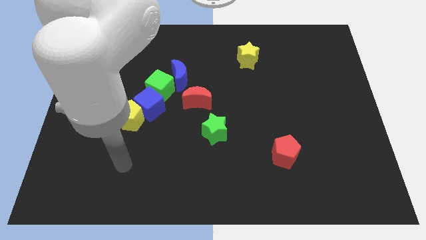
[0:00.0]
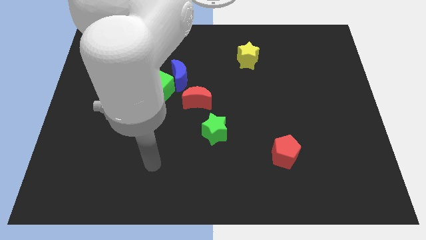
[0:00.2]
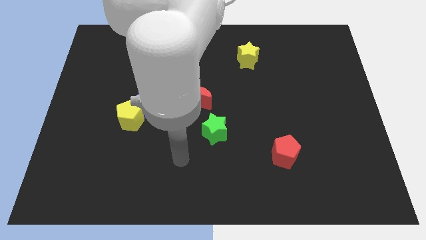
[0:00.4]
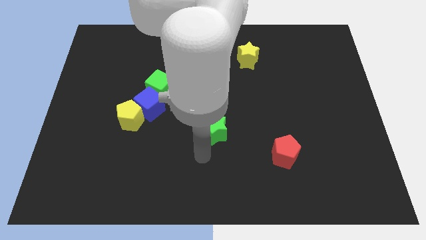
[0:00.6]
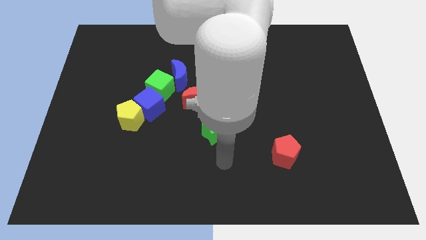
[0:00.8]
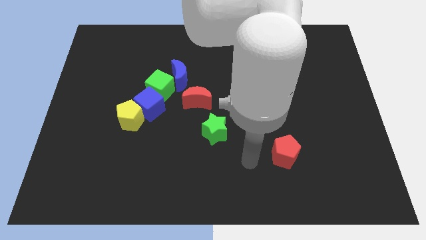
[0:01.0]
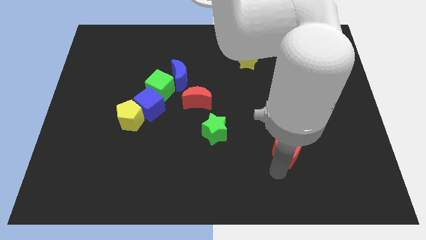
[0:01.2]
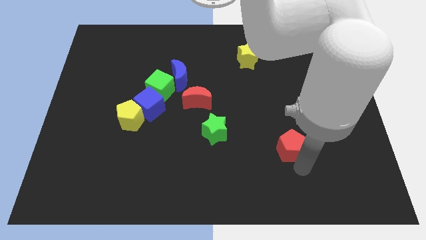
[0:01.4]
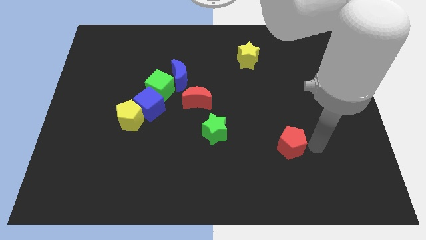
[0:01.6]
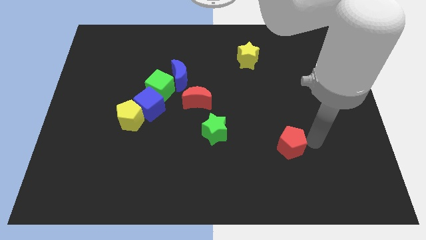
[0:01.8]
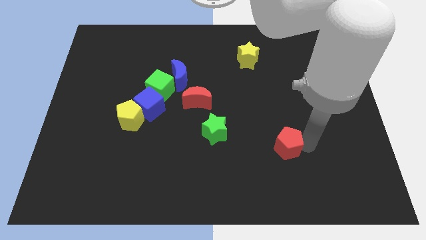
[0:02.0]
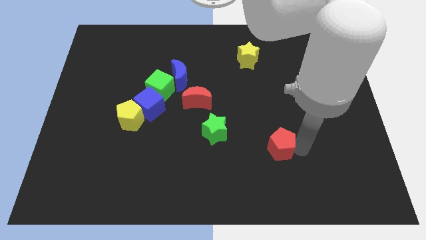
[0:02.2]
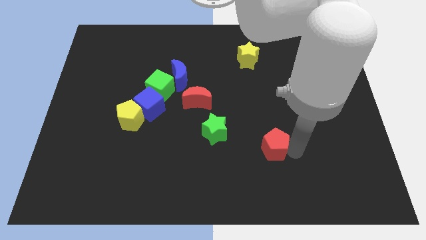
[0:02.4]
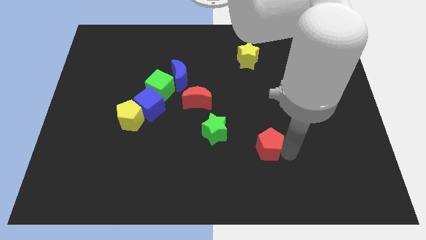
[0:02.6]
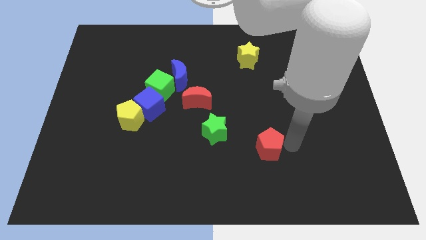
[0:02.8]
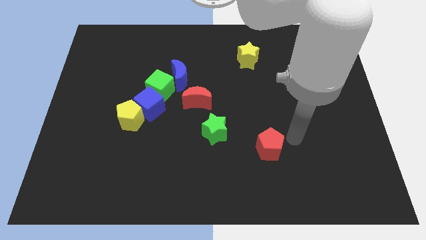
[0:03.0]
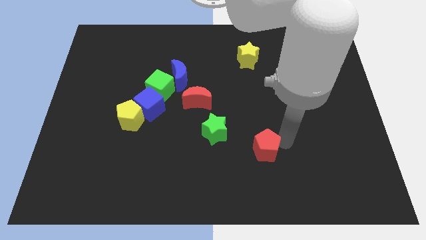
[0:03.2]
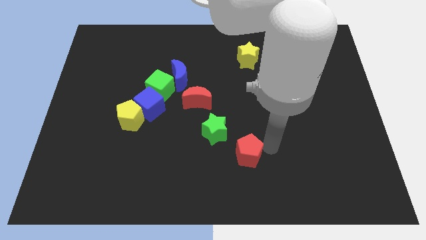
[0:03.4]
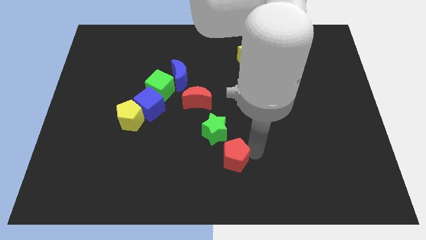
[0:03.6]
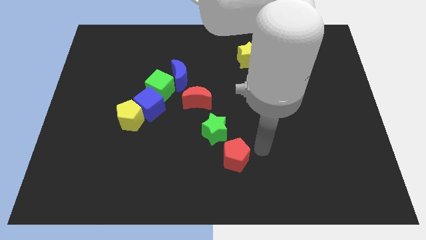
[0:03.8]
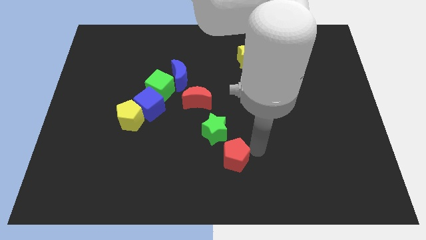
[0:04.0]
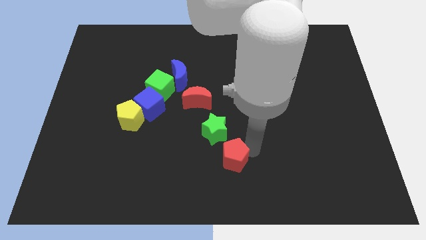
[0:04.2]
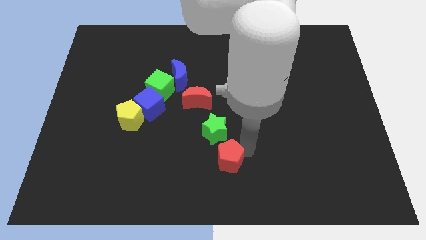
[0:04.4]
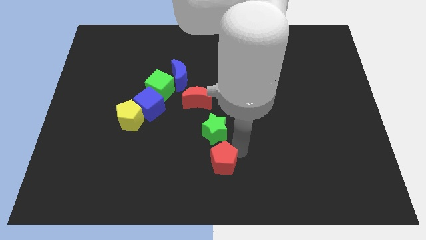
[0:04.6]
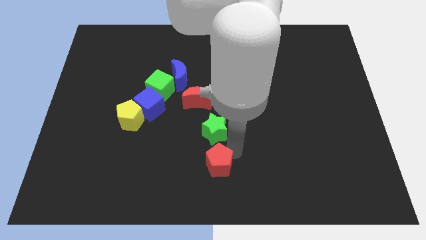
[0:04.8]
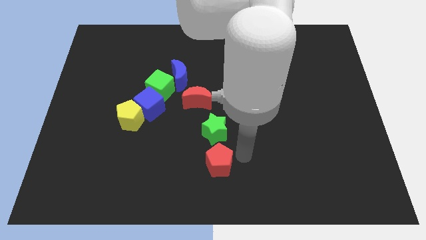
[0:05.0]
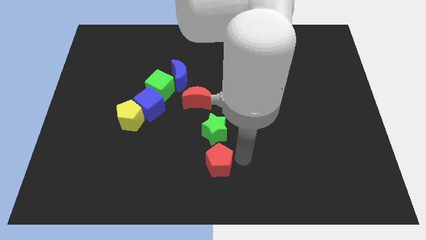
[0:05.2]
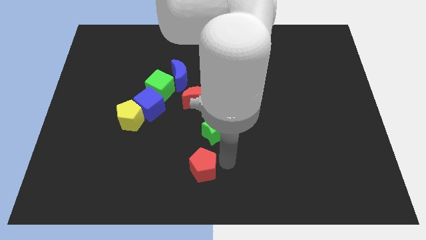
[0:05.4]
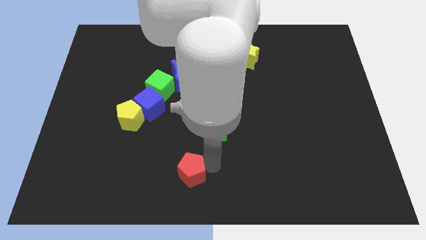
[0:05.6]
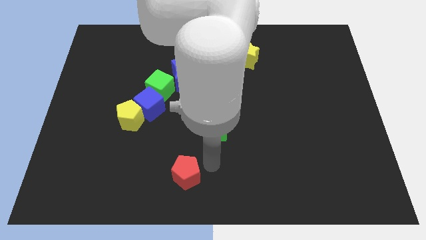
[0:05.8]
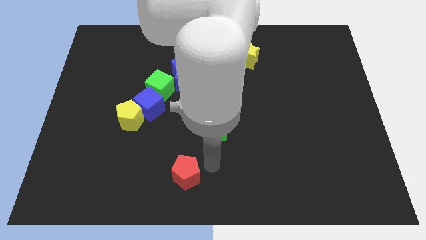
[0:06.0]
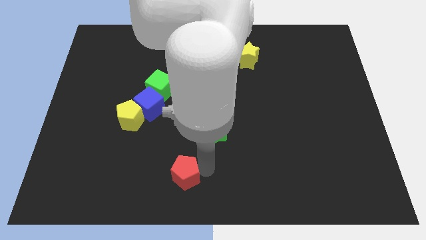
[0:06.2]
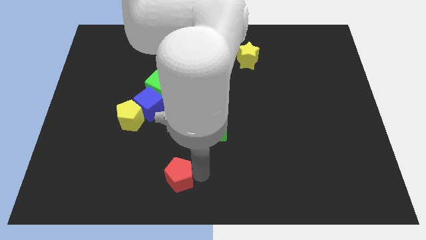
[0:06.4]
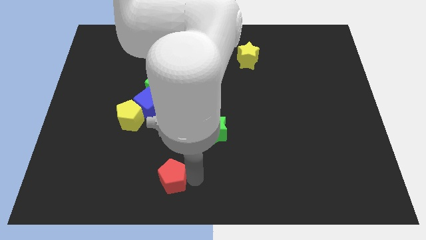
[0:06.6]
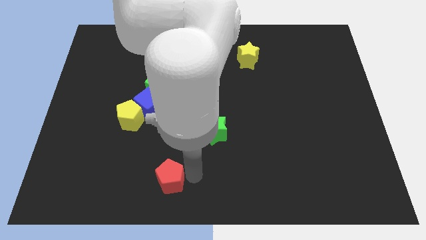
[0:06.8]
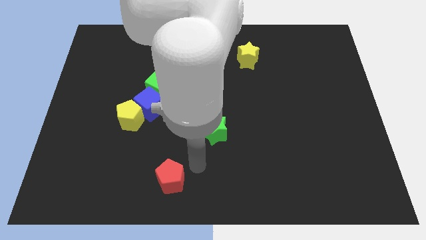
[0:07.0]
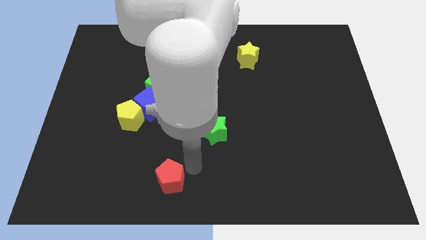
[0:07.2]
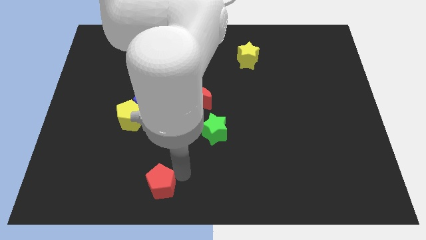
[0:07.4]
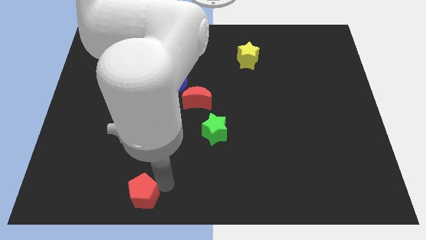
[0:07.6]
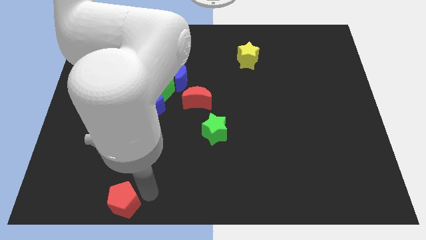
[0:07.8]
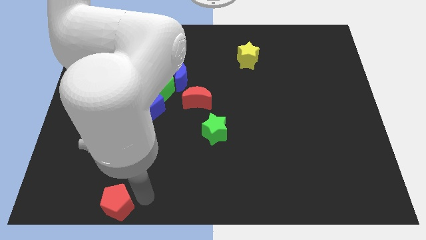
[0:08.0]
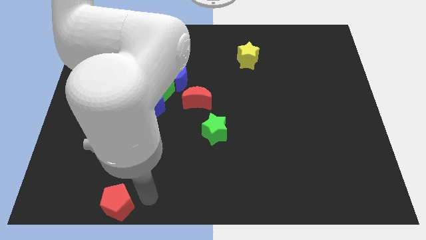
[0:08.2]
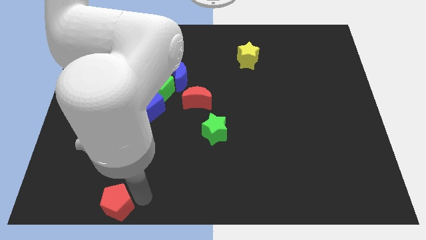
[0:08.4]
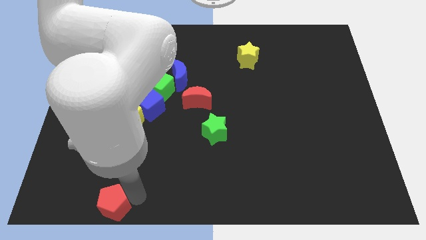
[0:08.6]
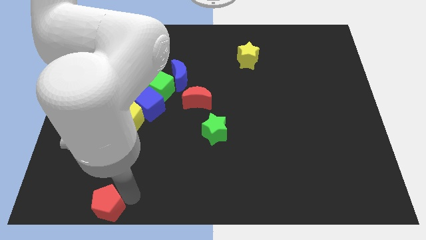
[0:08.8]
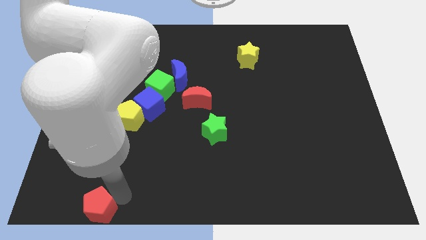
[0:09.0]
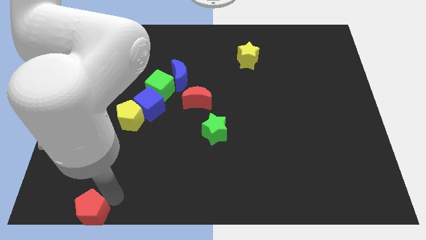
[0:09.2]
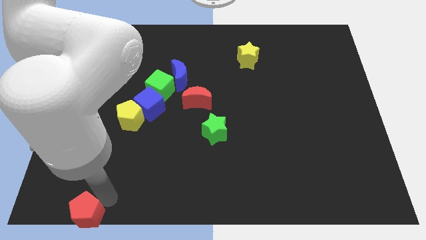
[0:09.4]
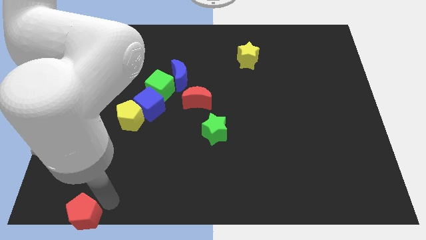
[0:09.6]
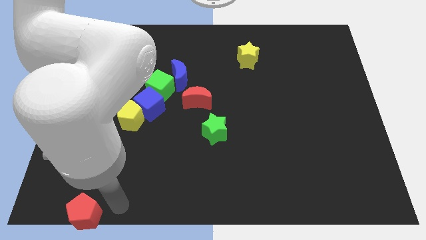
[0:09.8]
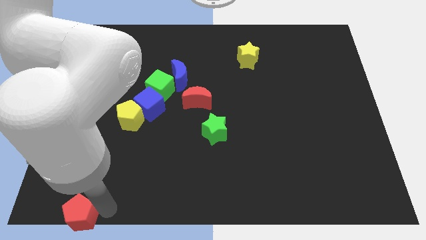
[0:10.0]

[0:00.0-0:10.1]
push the red pentagon to the bottom left corner

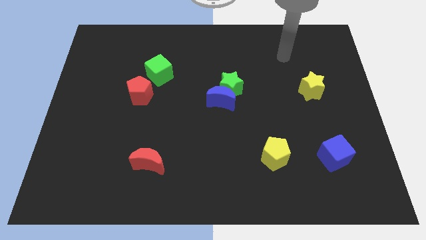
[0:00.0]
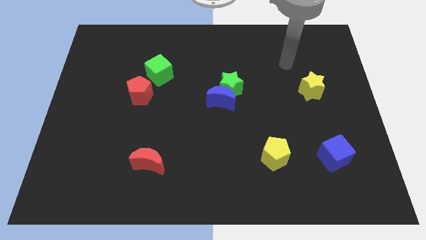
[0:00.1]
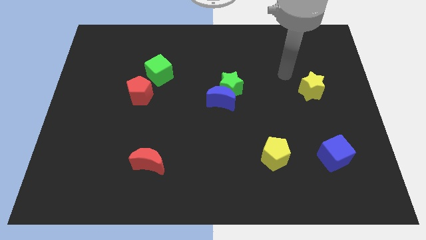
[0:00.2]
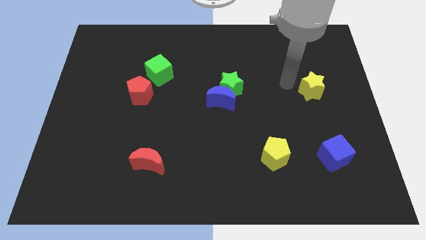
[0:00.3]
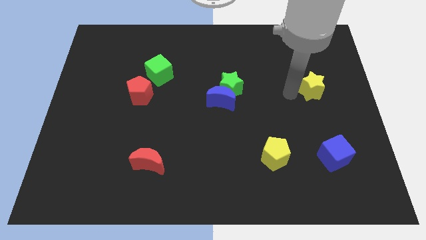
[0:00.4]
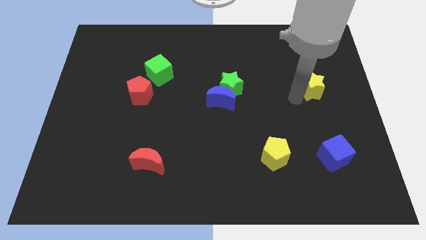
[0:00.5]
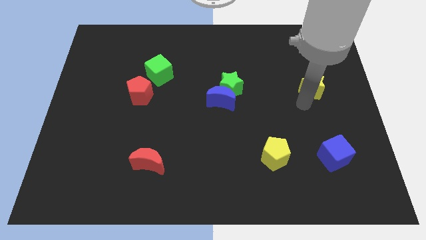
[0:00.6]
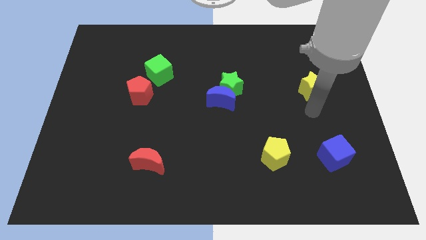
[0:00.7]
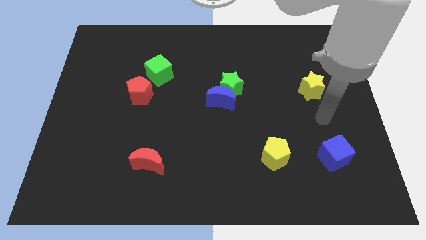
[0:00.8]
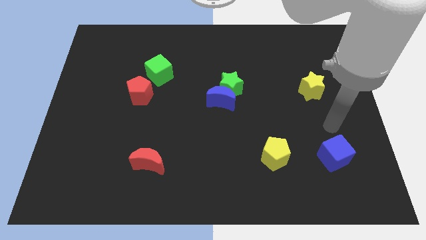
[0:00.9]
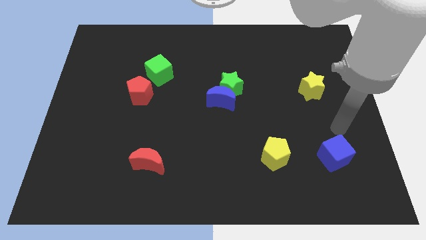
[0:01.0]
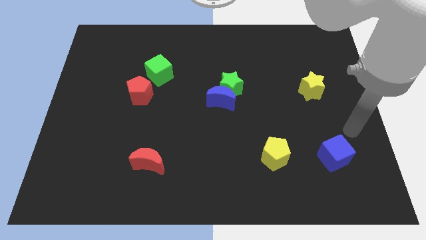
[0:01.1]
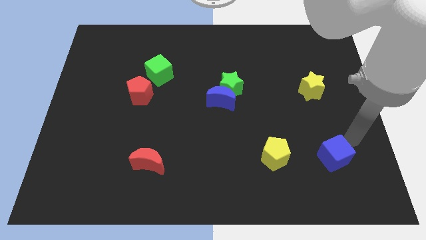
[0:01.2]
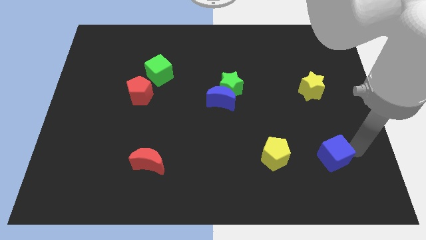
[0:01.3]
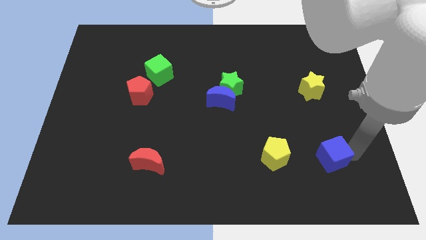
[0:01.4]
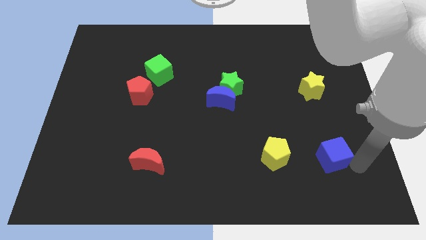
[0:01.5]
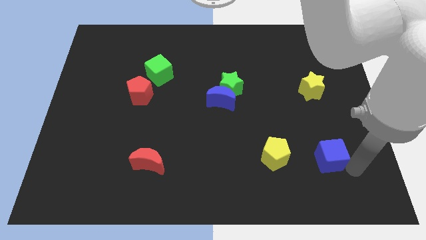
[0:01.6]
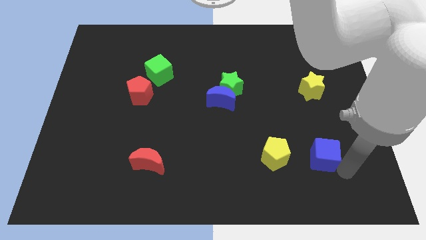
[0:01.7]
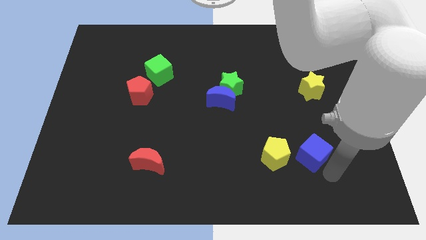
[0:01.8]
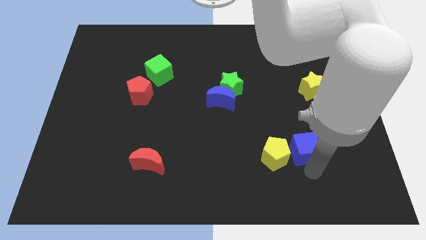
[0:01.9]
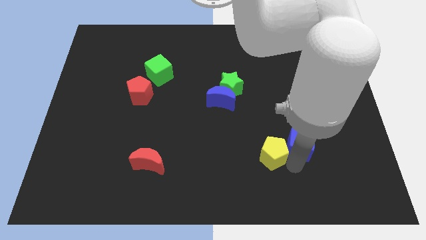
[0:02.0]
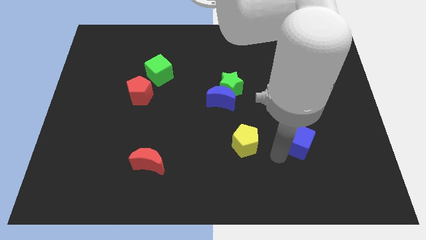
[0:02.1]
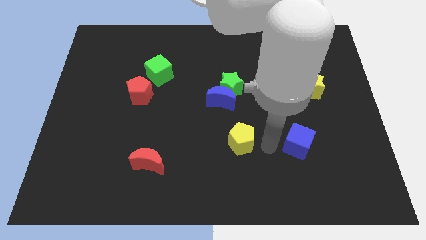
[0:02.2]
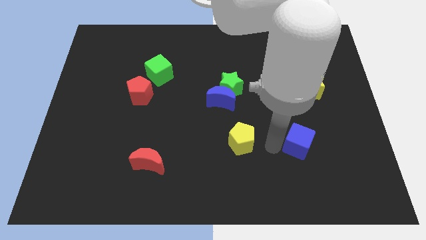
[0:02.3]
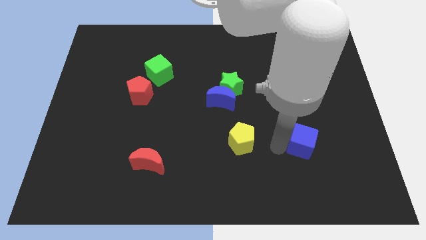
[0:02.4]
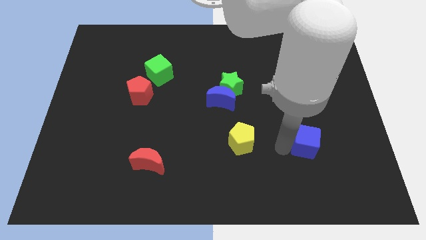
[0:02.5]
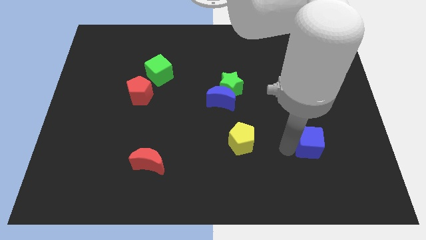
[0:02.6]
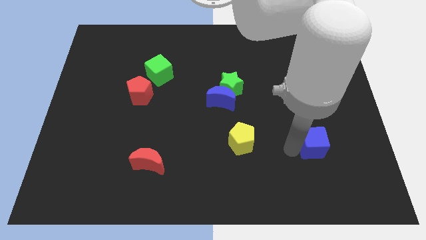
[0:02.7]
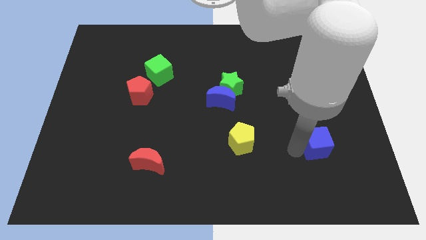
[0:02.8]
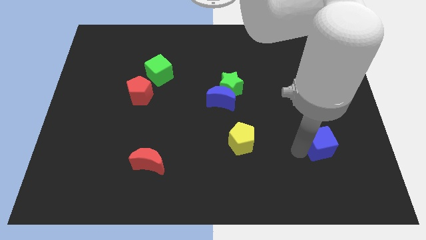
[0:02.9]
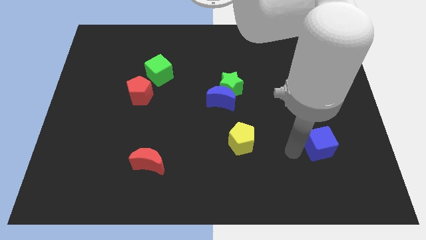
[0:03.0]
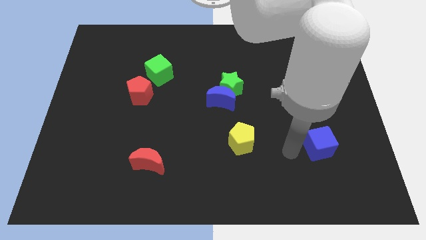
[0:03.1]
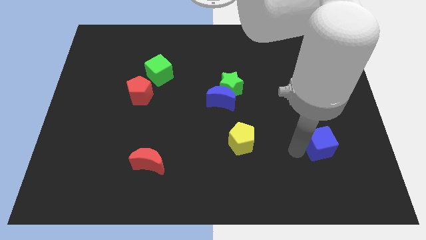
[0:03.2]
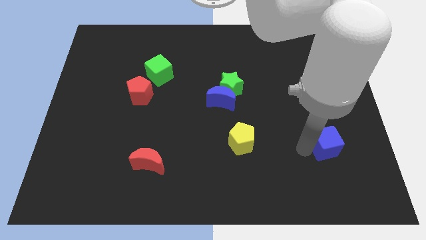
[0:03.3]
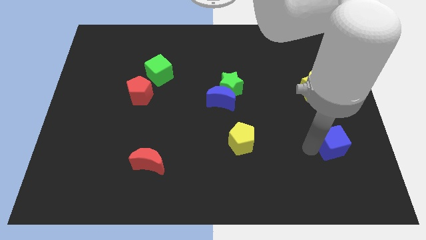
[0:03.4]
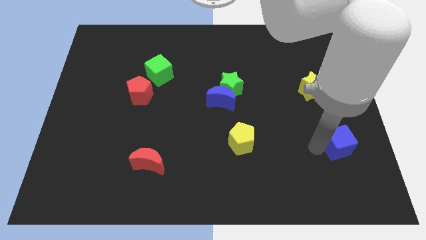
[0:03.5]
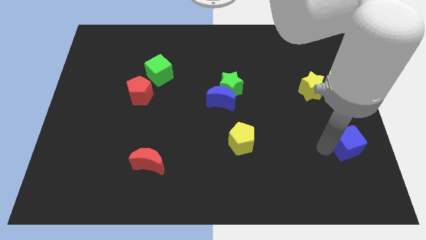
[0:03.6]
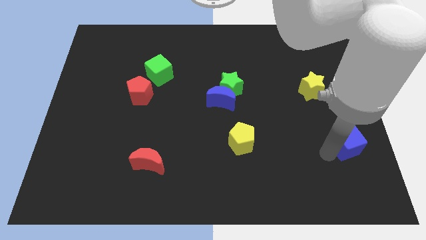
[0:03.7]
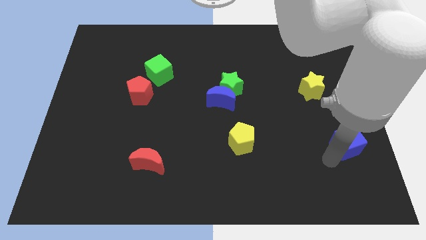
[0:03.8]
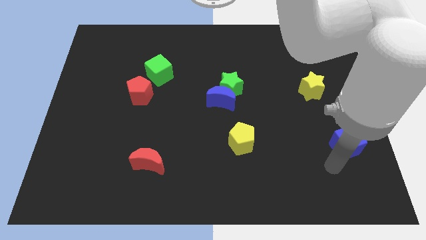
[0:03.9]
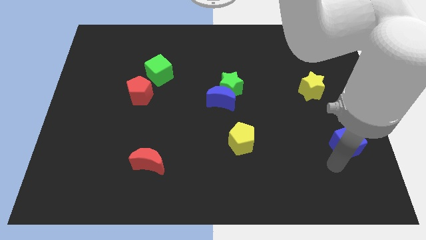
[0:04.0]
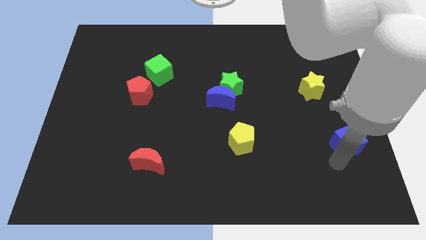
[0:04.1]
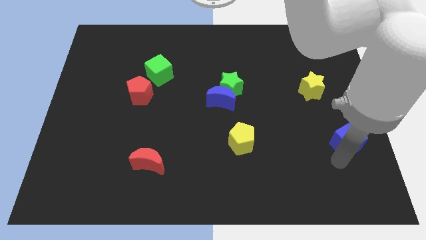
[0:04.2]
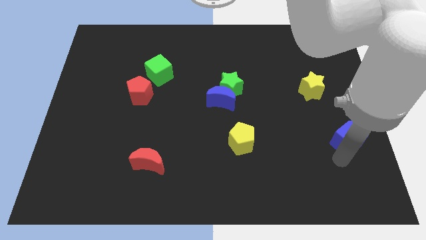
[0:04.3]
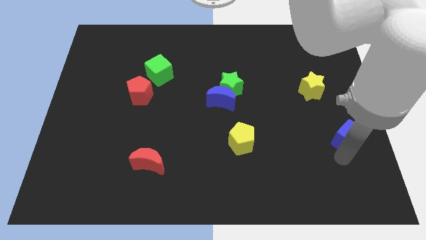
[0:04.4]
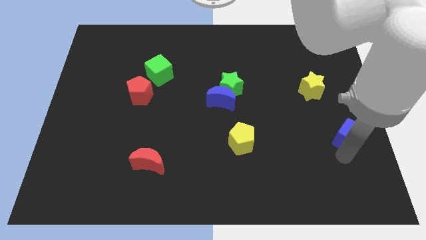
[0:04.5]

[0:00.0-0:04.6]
push the blue cube to the right side
